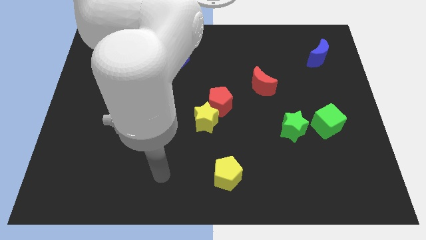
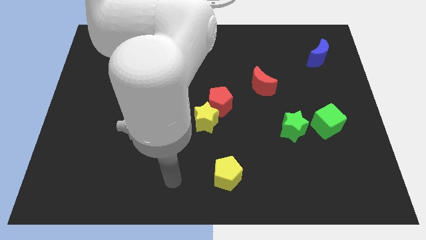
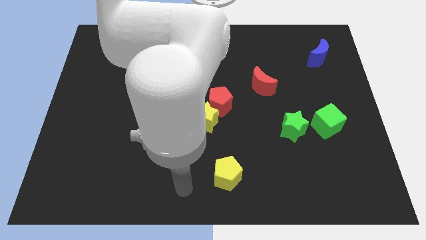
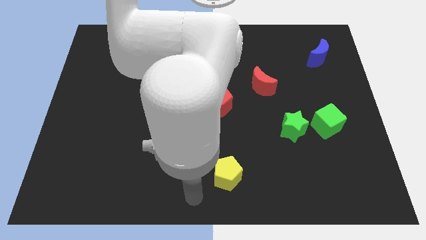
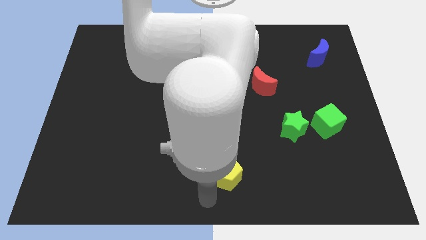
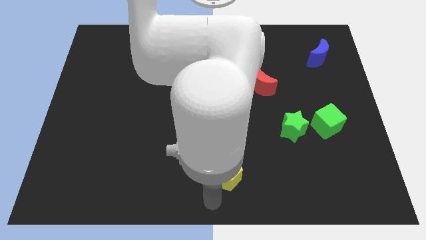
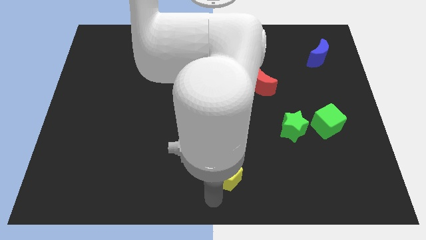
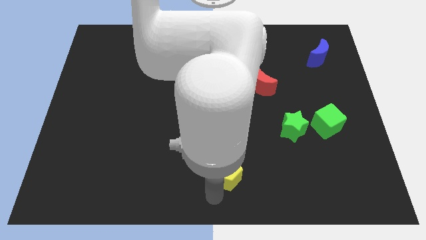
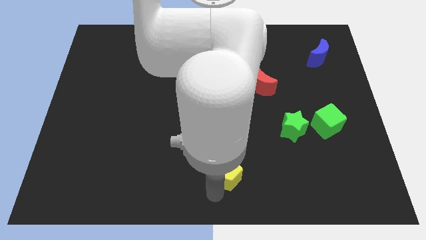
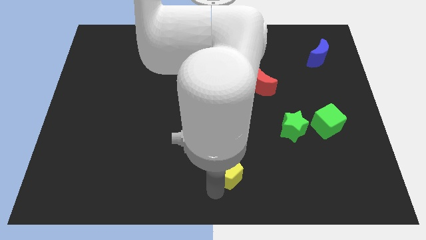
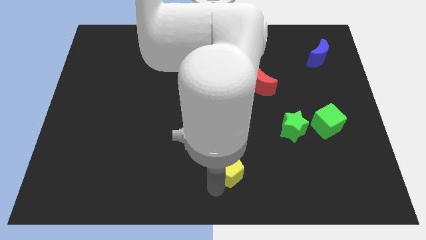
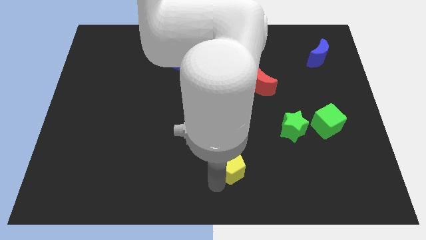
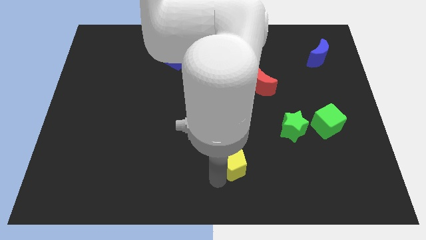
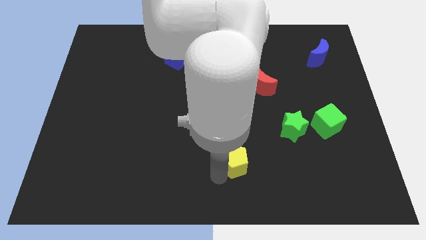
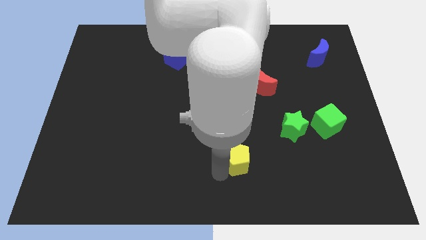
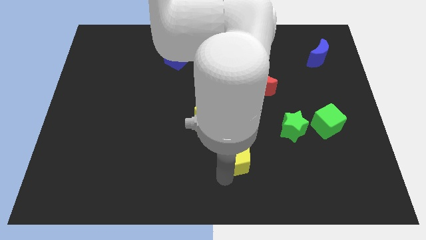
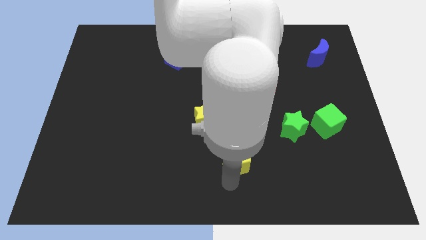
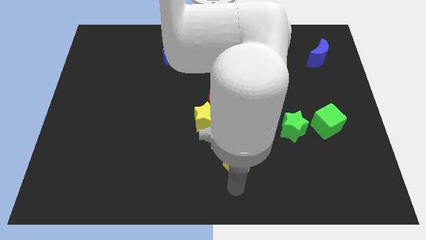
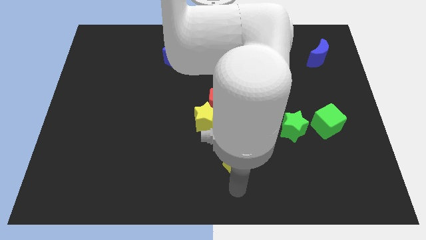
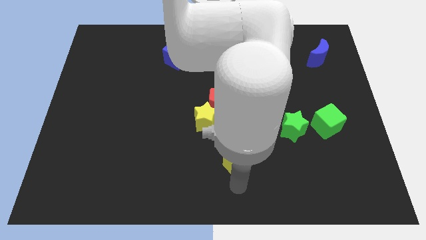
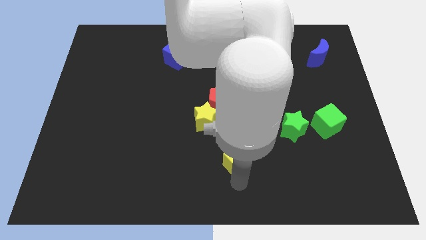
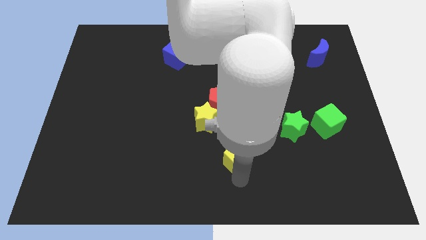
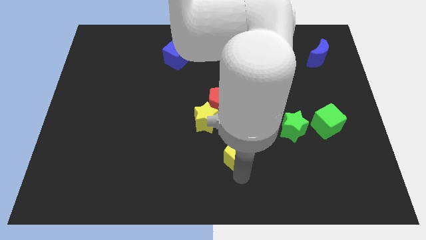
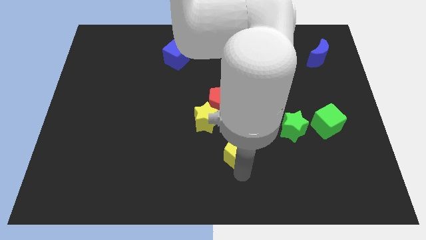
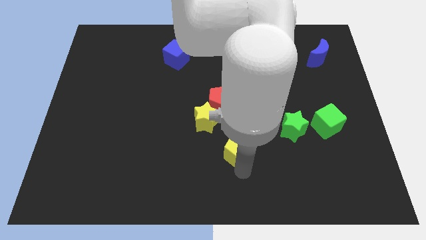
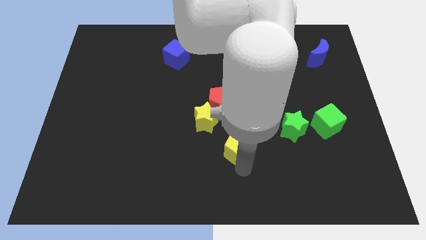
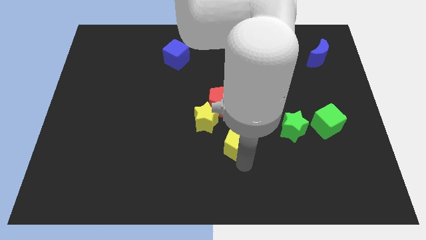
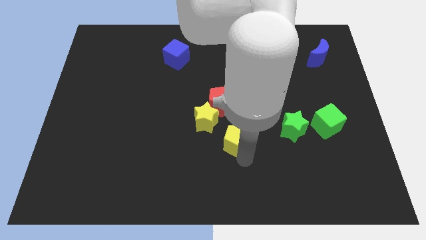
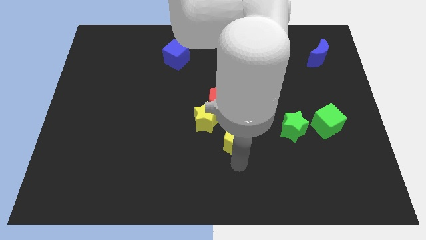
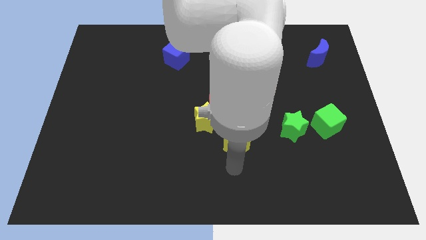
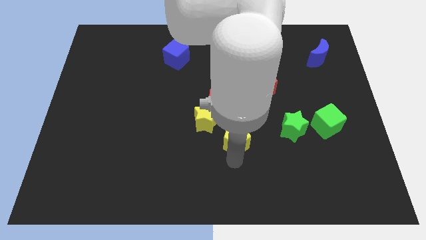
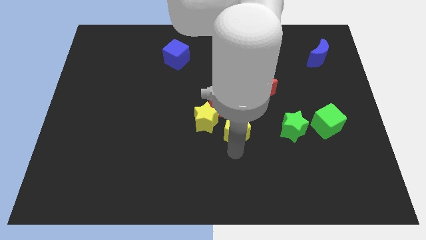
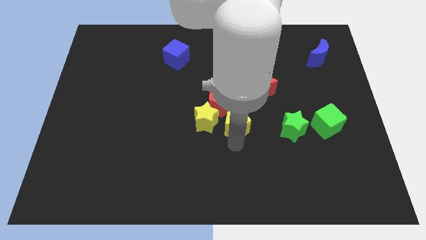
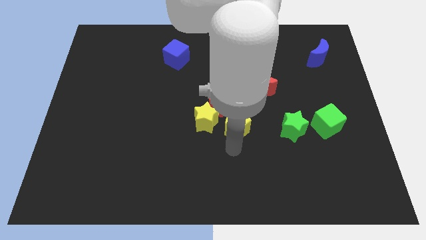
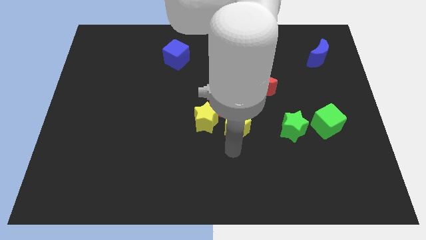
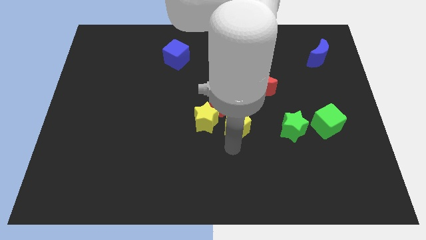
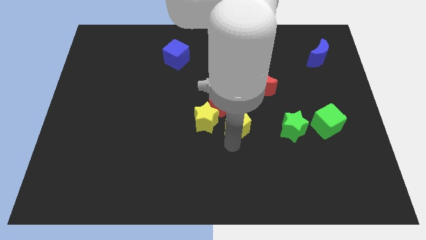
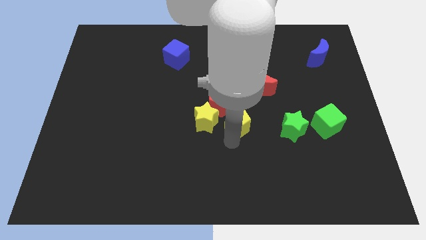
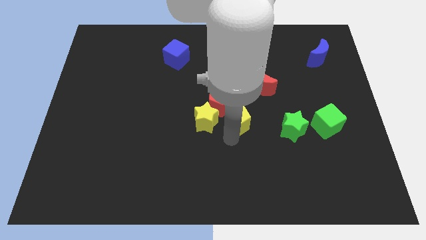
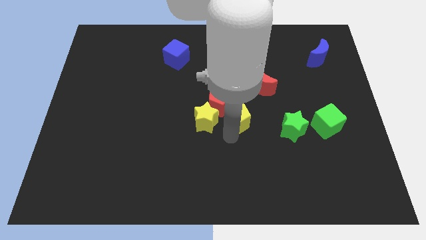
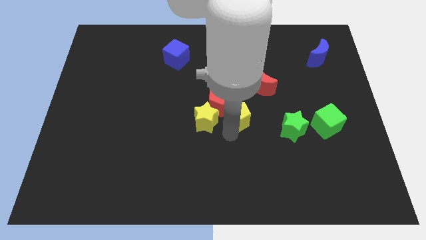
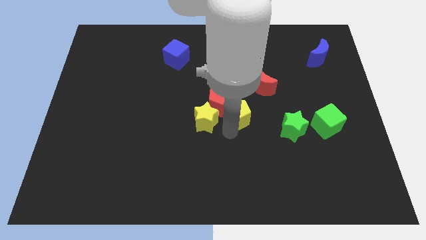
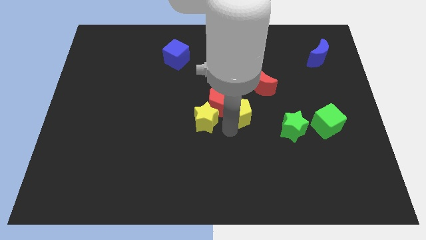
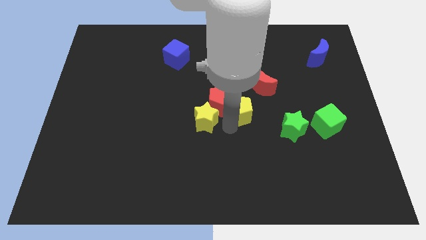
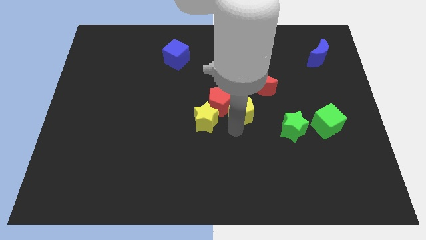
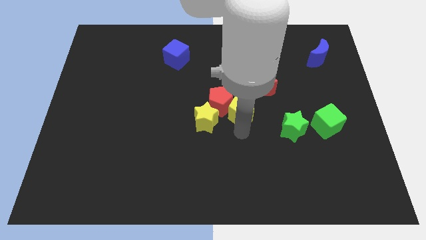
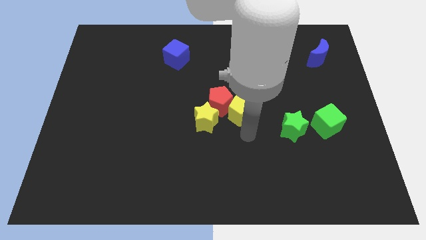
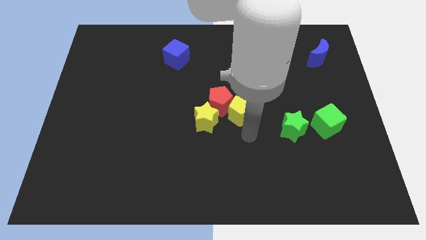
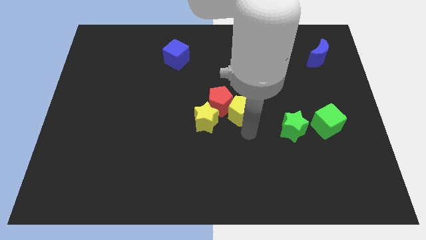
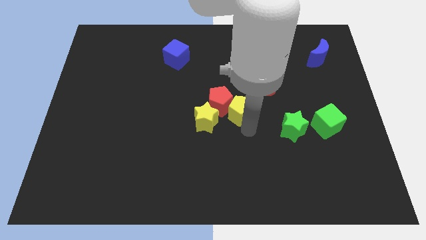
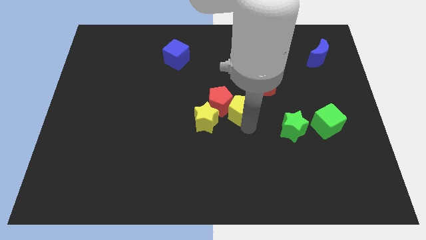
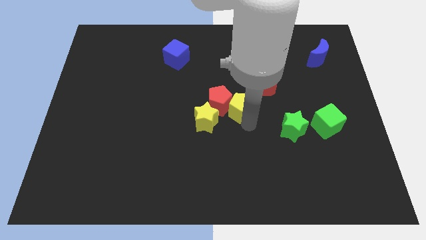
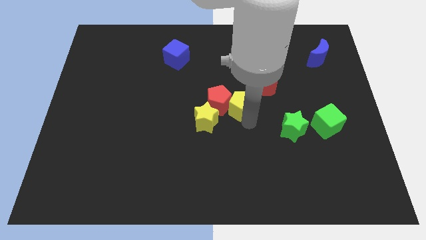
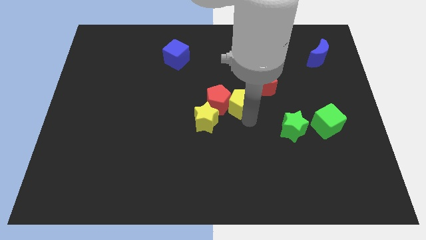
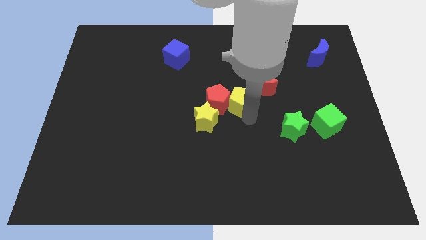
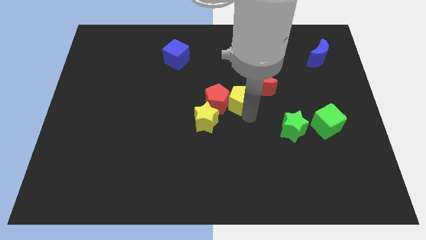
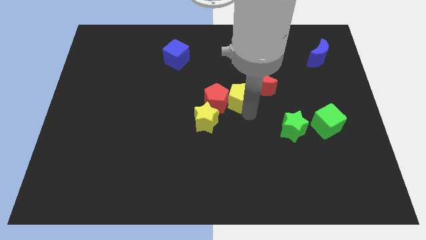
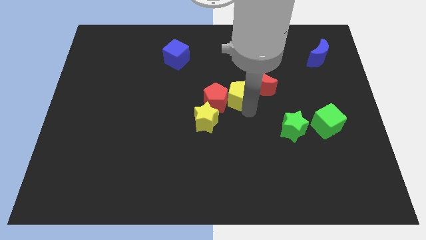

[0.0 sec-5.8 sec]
slide the yellow pentagon up

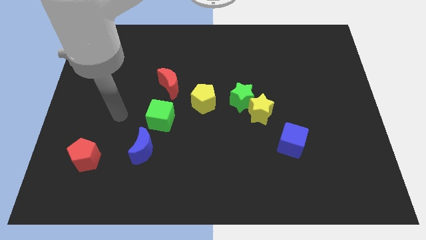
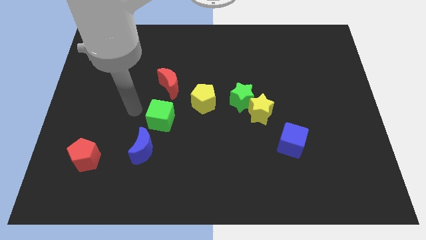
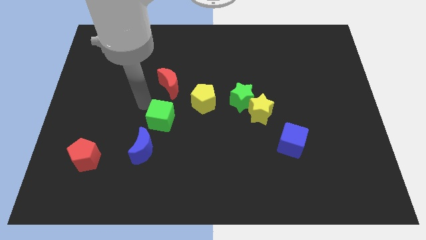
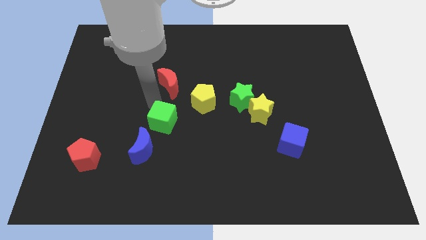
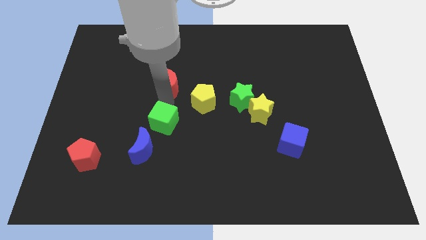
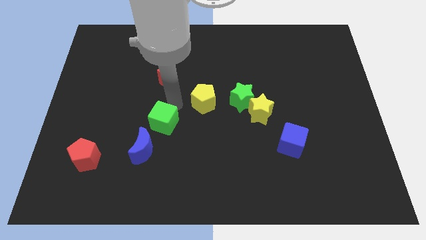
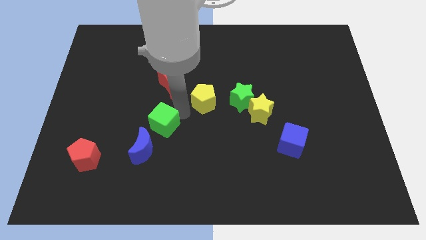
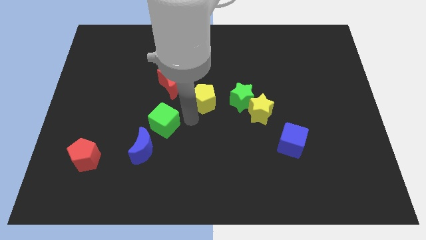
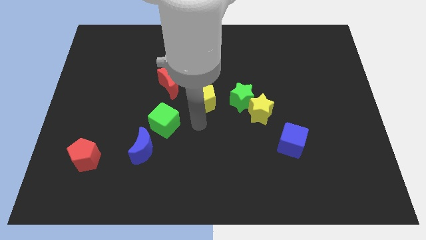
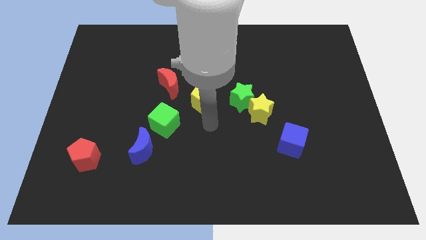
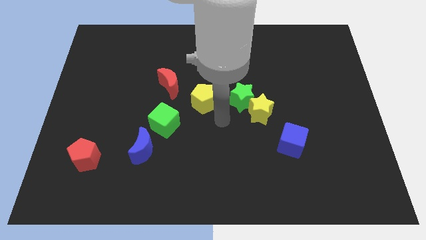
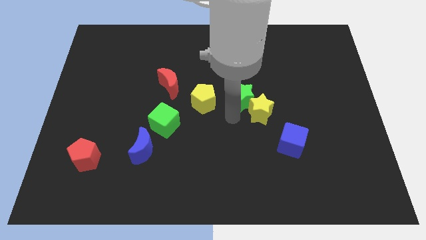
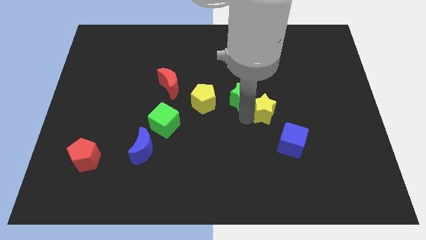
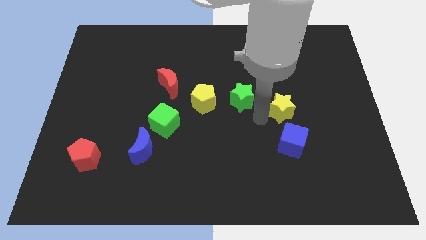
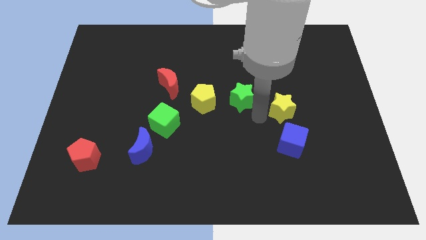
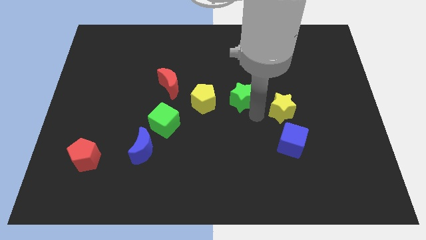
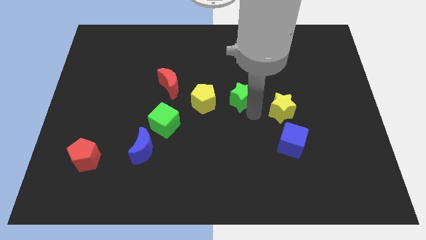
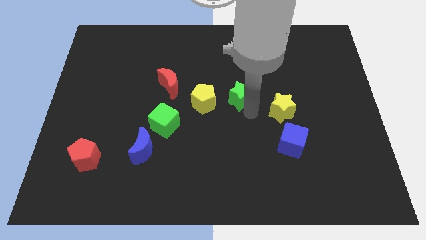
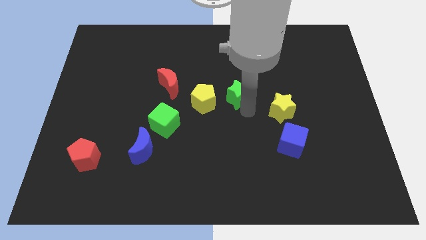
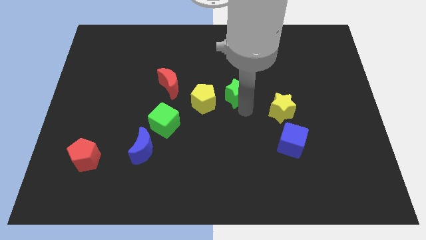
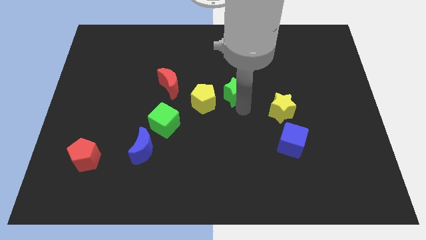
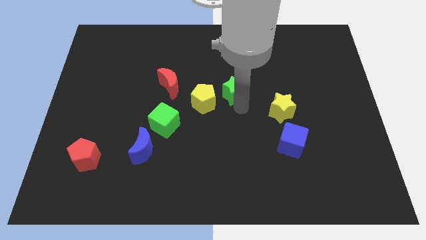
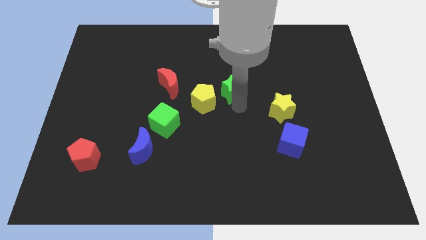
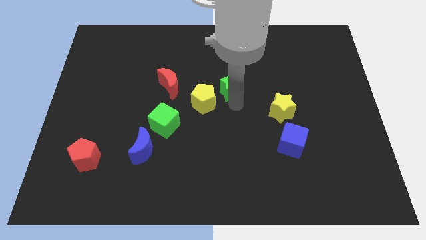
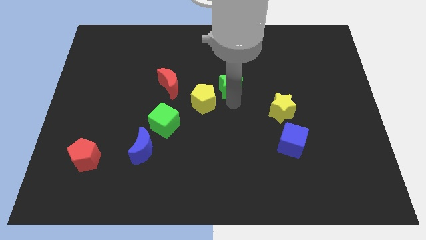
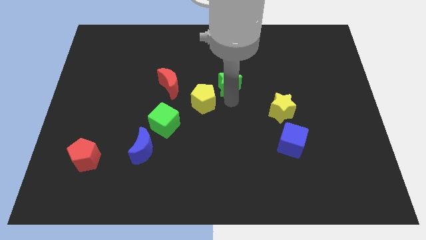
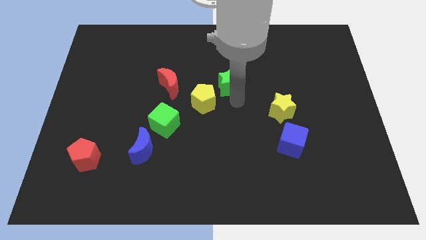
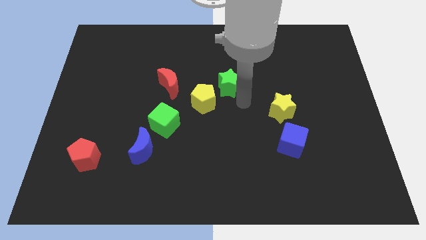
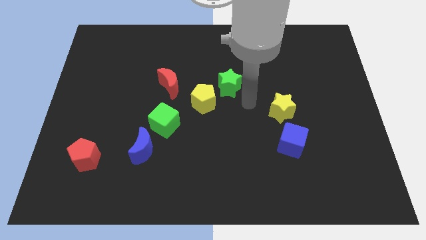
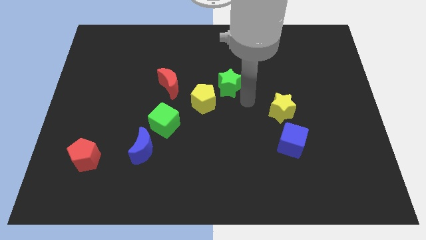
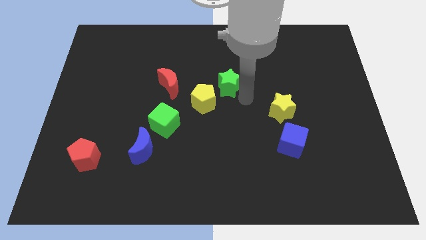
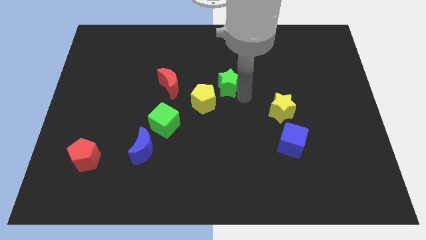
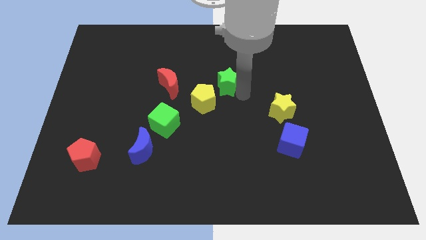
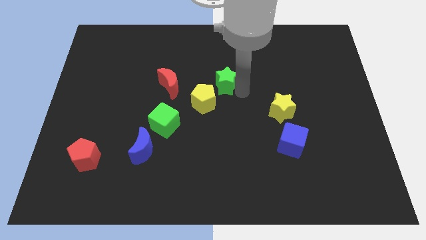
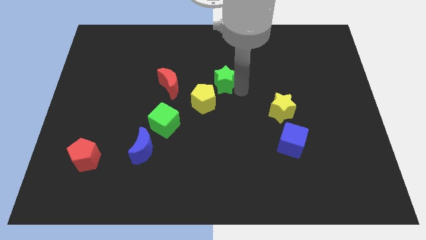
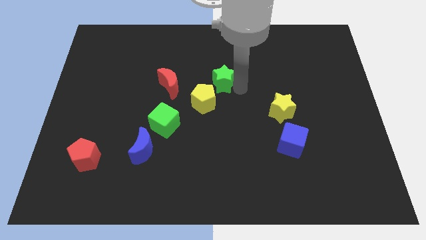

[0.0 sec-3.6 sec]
slightly push the green star up and then left
